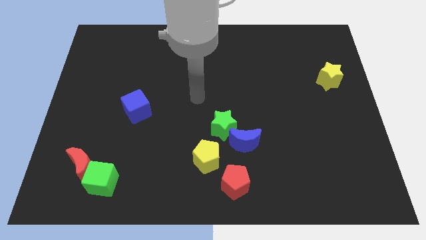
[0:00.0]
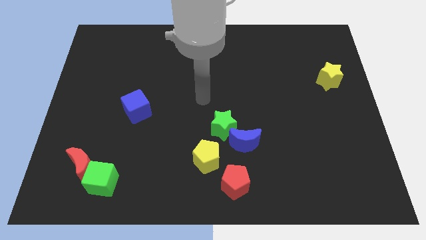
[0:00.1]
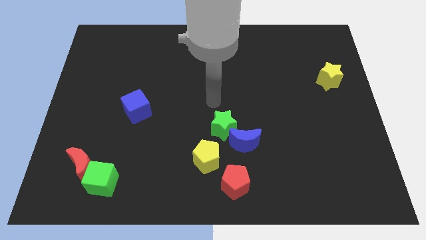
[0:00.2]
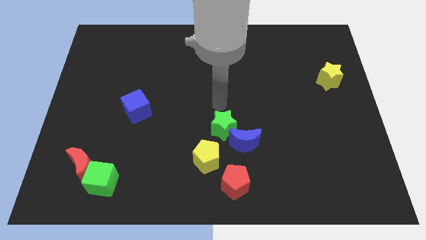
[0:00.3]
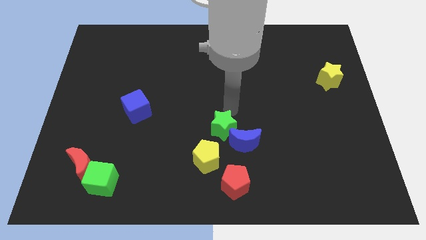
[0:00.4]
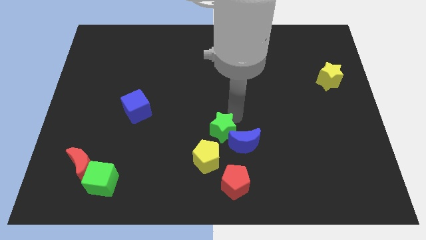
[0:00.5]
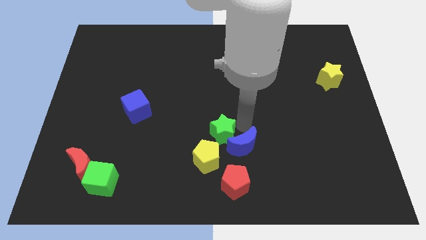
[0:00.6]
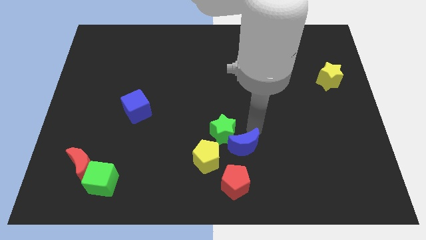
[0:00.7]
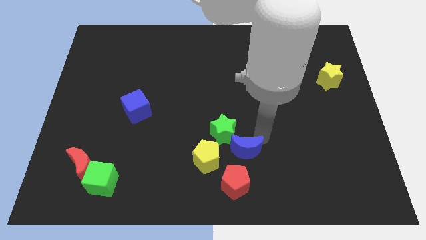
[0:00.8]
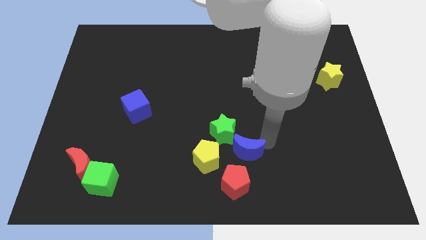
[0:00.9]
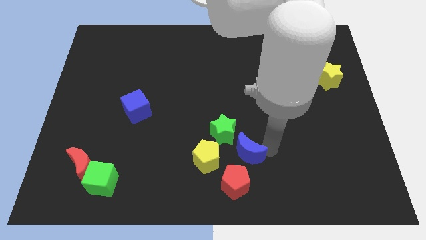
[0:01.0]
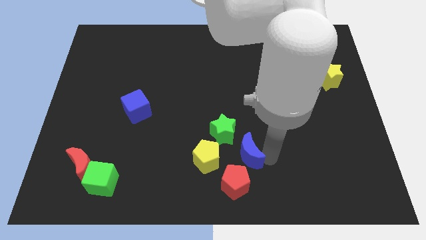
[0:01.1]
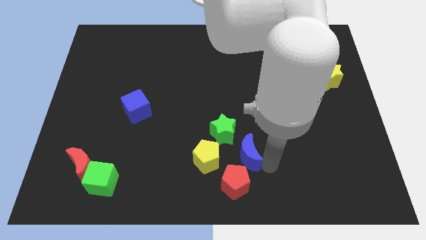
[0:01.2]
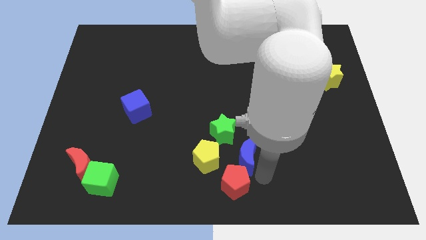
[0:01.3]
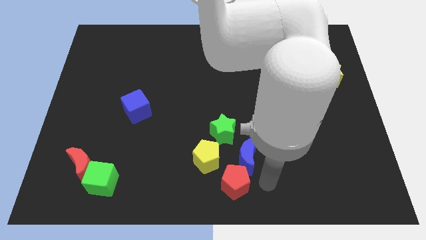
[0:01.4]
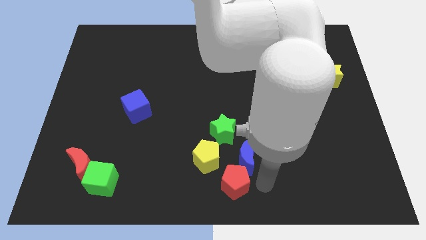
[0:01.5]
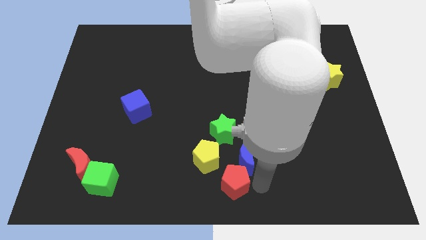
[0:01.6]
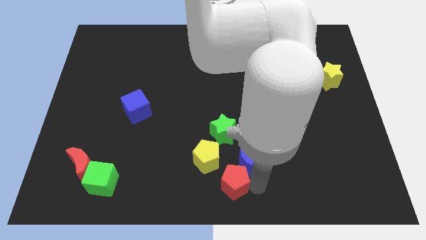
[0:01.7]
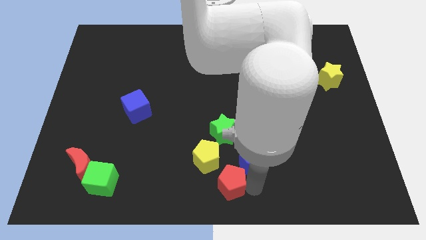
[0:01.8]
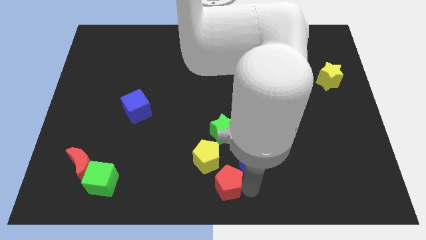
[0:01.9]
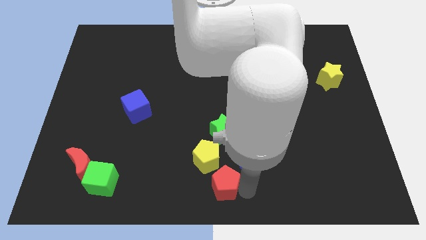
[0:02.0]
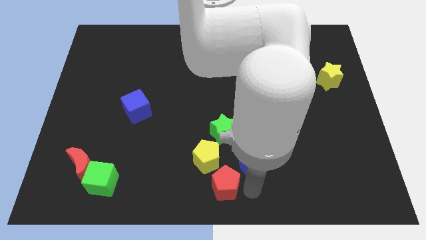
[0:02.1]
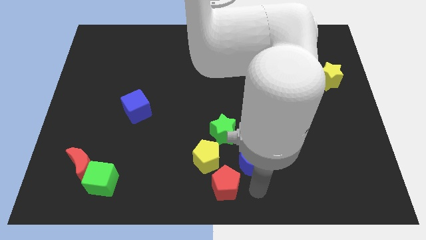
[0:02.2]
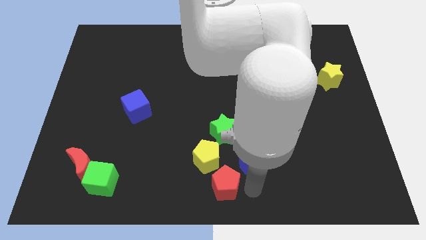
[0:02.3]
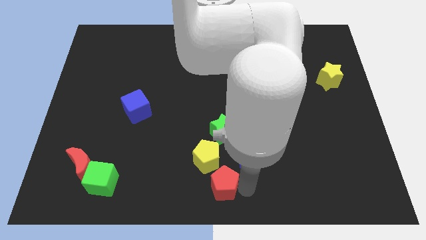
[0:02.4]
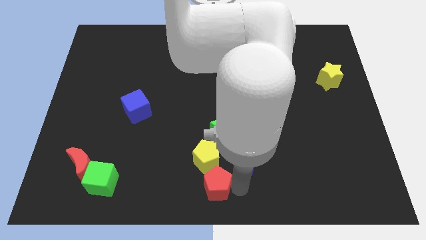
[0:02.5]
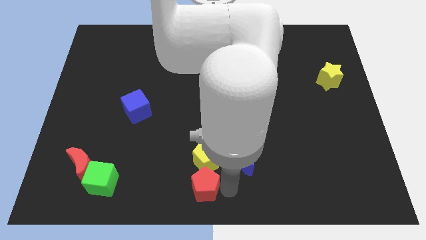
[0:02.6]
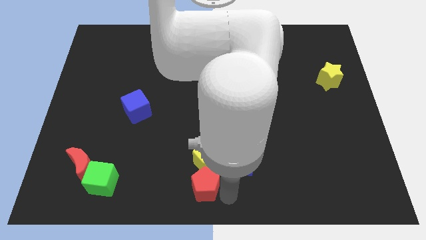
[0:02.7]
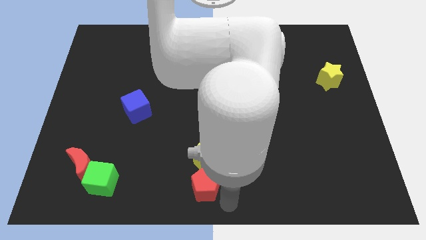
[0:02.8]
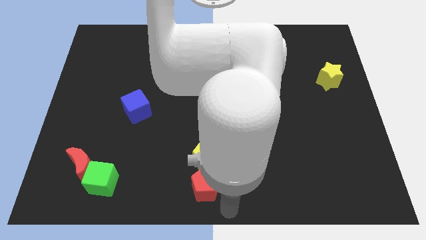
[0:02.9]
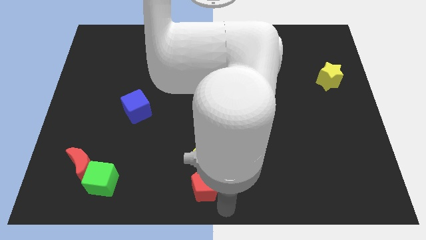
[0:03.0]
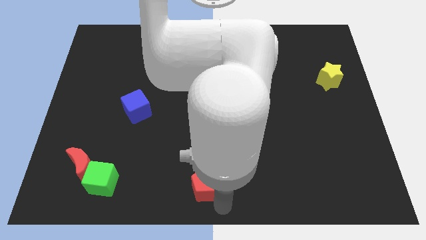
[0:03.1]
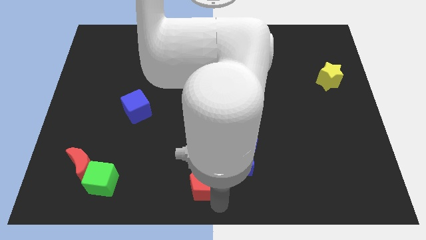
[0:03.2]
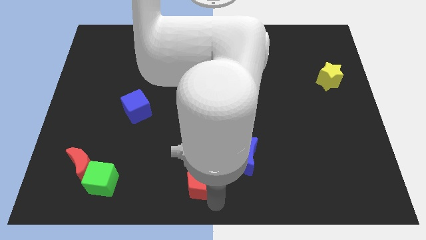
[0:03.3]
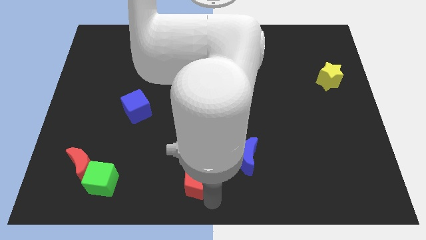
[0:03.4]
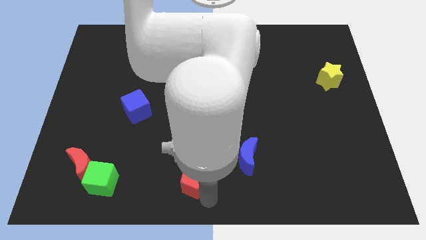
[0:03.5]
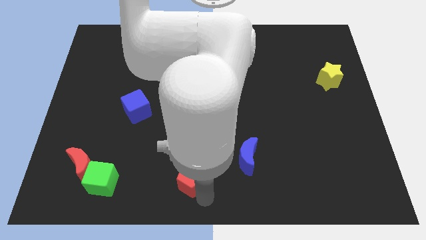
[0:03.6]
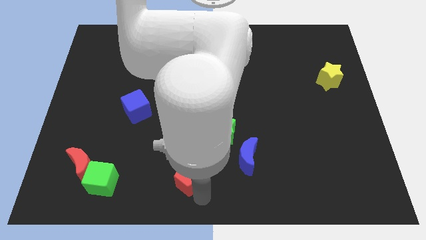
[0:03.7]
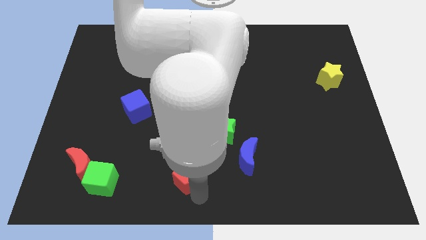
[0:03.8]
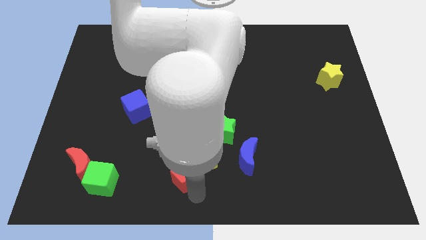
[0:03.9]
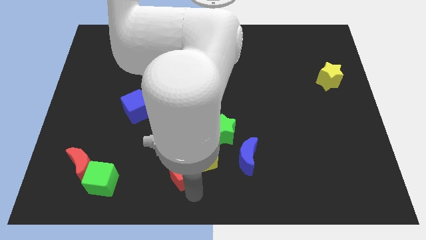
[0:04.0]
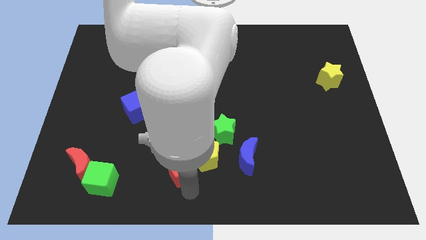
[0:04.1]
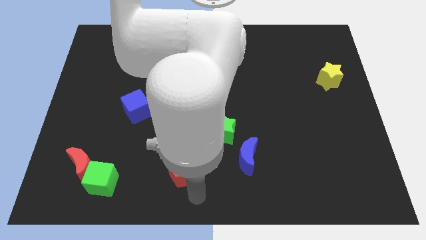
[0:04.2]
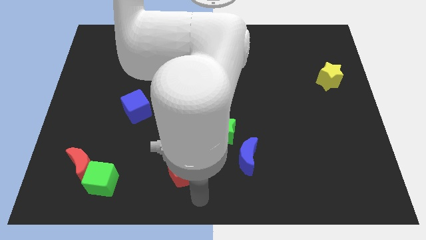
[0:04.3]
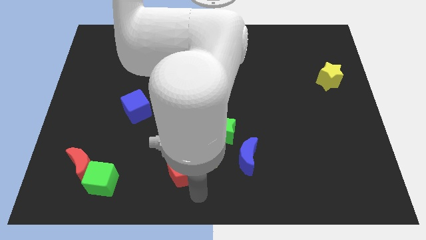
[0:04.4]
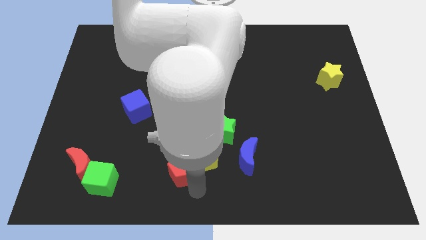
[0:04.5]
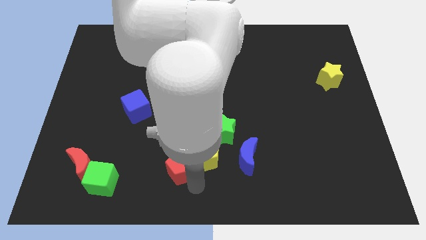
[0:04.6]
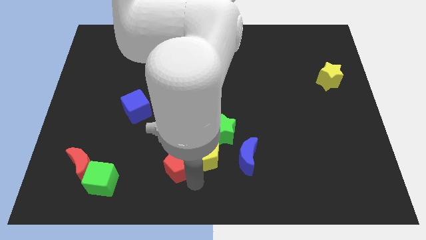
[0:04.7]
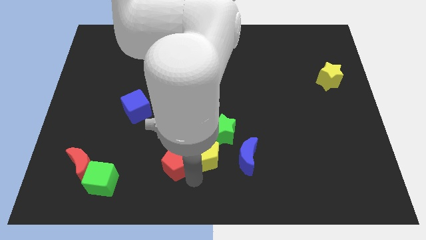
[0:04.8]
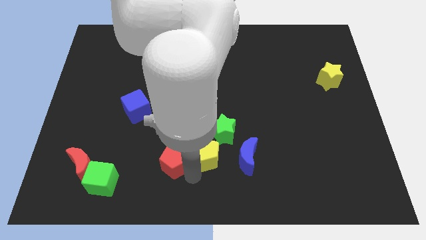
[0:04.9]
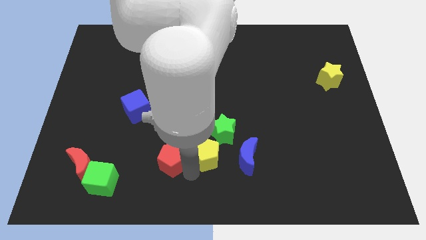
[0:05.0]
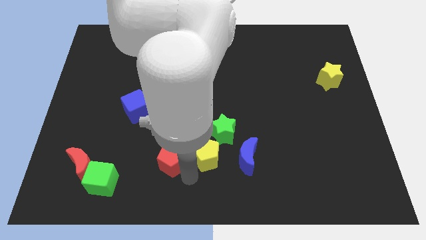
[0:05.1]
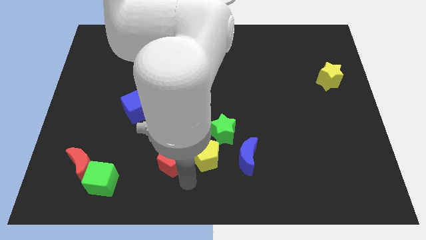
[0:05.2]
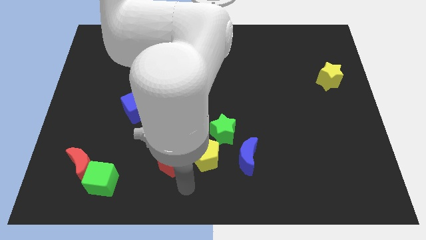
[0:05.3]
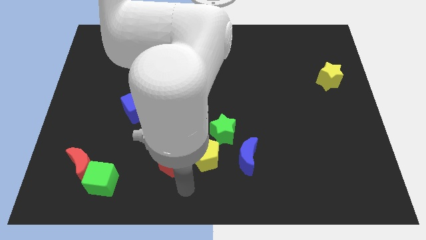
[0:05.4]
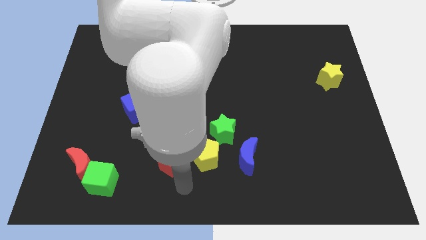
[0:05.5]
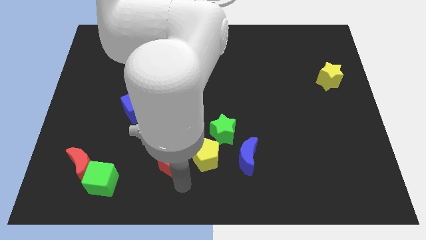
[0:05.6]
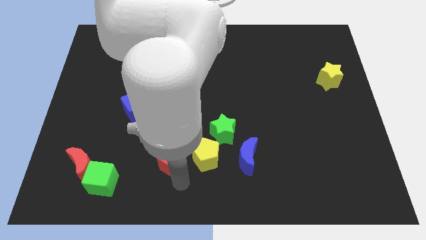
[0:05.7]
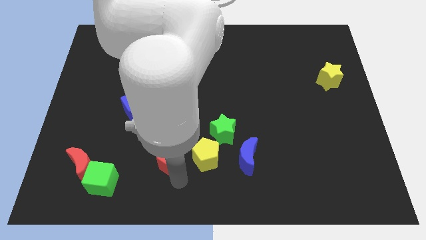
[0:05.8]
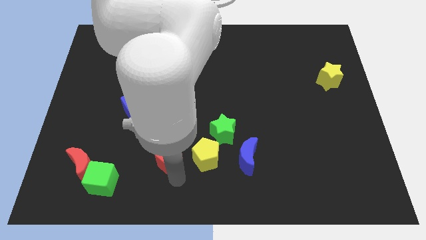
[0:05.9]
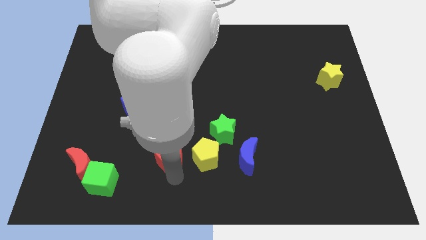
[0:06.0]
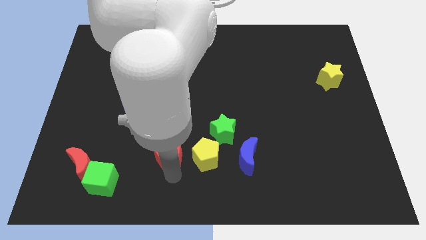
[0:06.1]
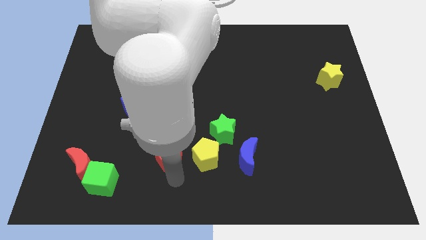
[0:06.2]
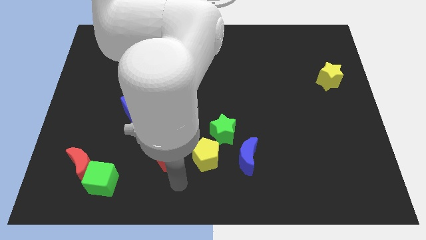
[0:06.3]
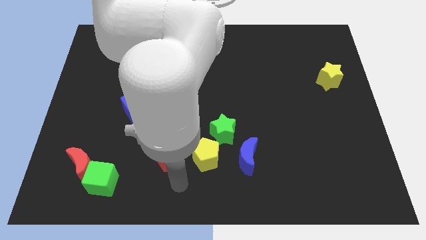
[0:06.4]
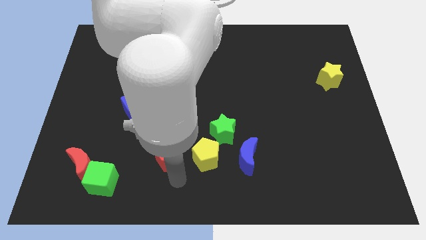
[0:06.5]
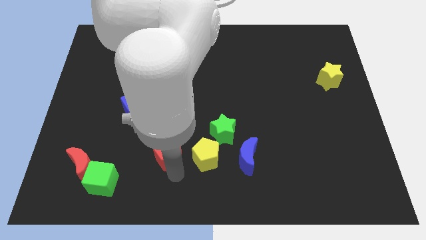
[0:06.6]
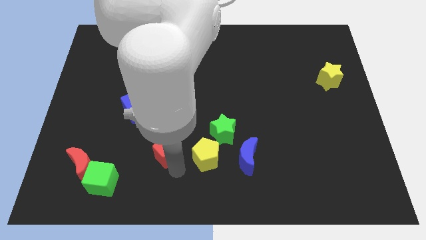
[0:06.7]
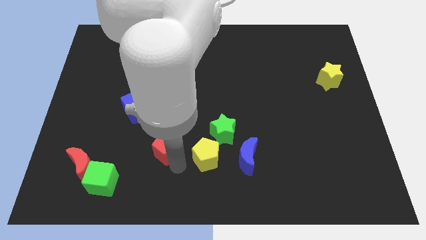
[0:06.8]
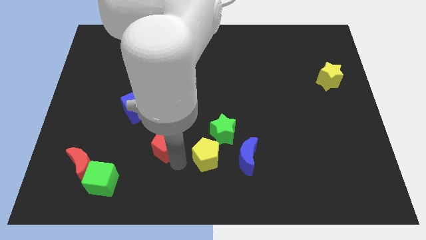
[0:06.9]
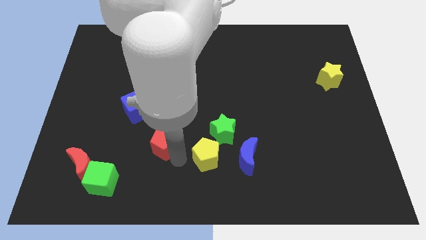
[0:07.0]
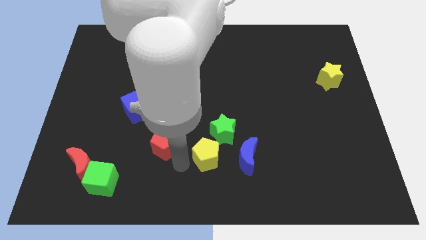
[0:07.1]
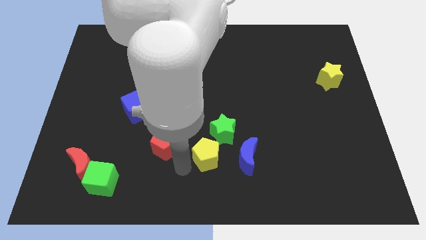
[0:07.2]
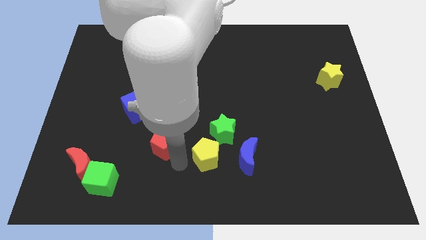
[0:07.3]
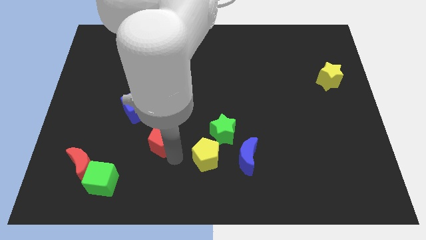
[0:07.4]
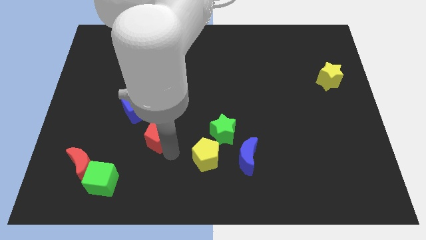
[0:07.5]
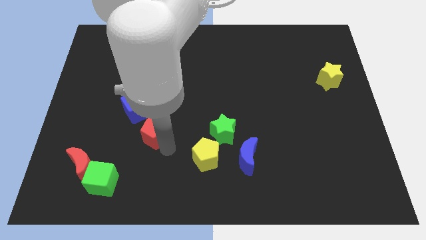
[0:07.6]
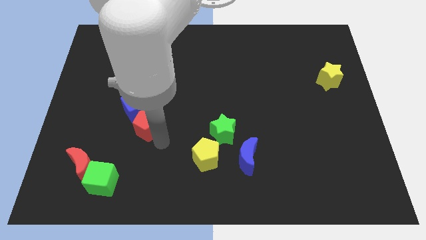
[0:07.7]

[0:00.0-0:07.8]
slide the red pentagon towards the blue cube
